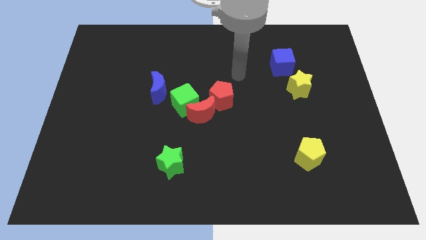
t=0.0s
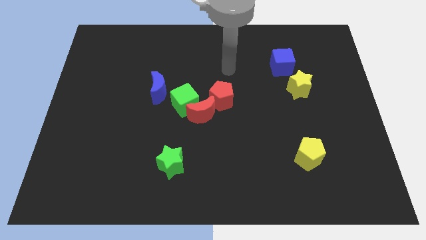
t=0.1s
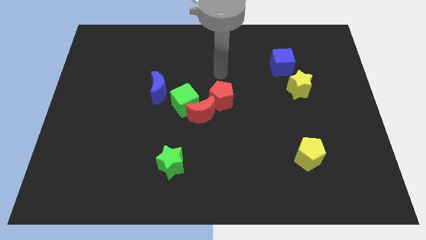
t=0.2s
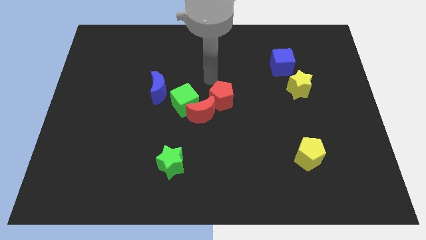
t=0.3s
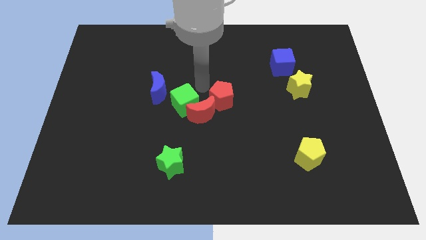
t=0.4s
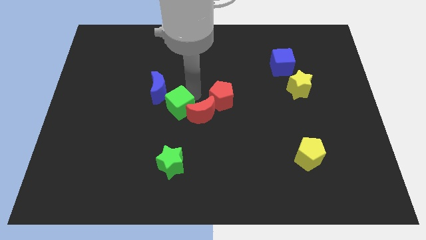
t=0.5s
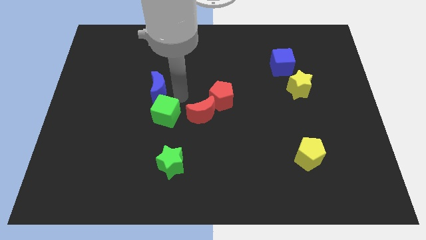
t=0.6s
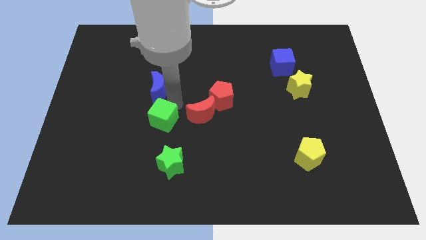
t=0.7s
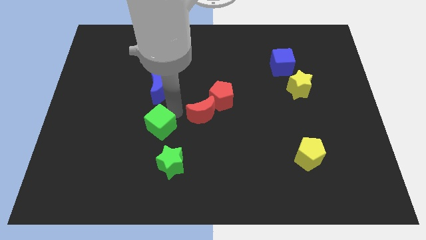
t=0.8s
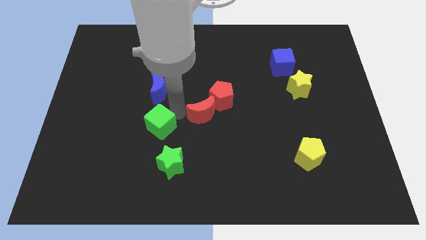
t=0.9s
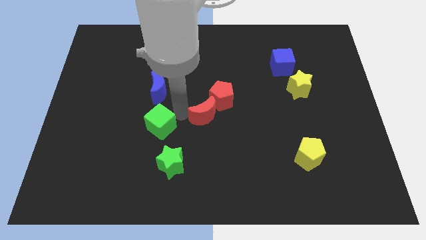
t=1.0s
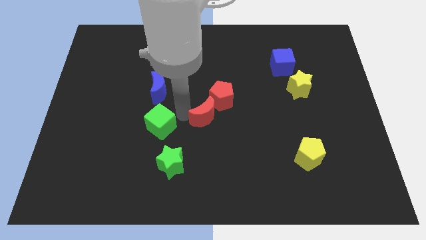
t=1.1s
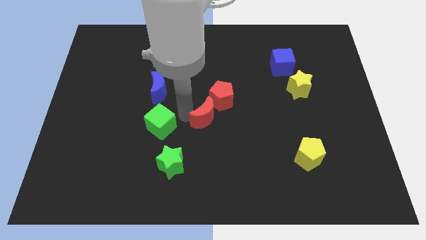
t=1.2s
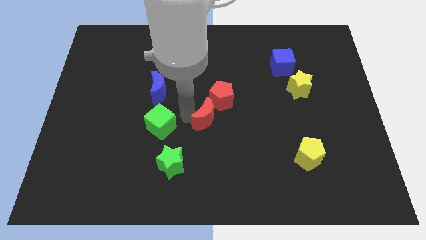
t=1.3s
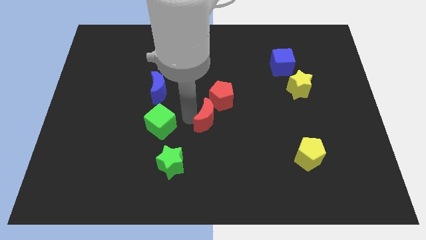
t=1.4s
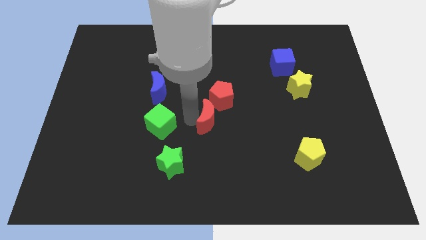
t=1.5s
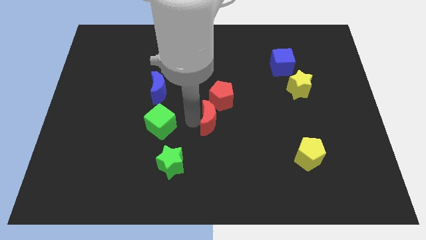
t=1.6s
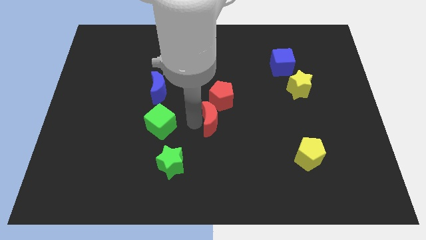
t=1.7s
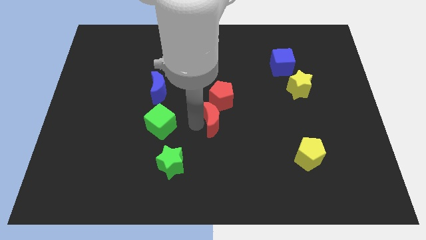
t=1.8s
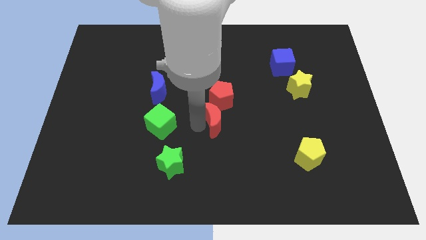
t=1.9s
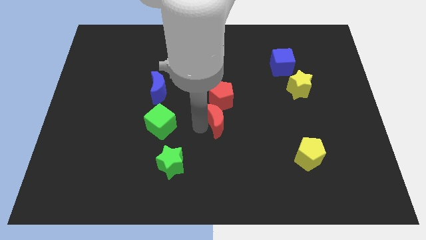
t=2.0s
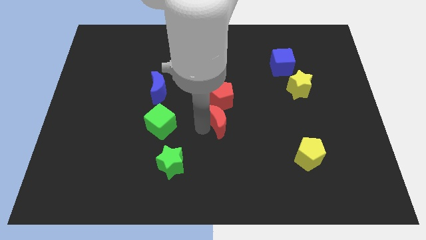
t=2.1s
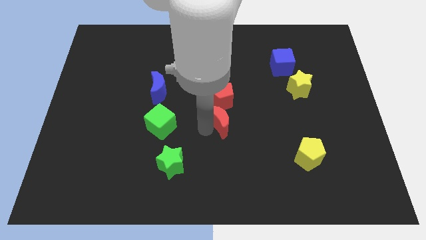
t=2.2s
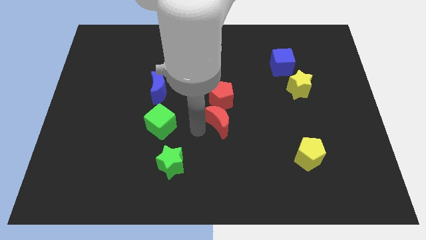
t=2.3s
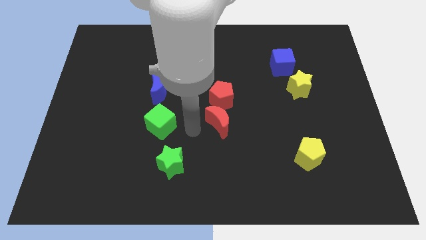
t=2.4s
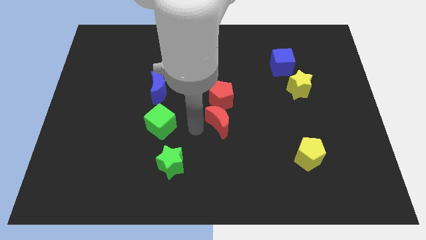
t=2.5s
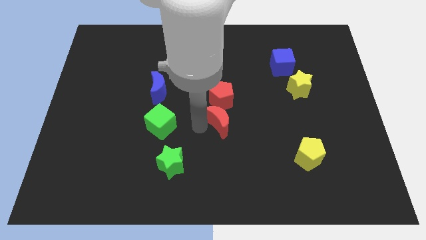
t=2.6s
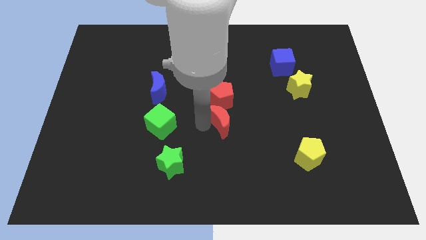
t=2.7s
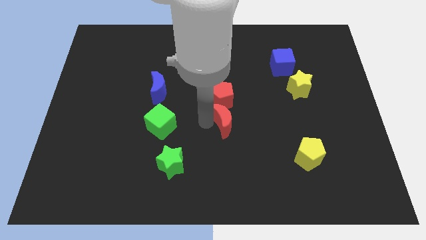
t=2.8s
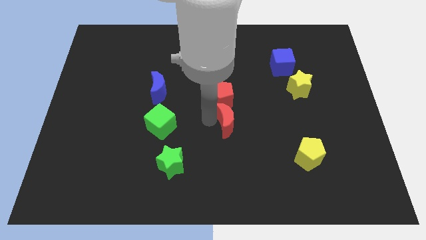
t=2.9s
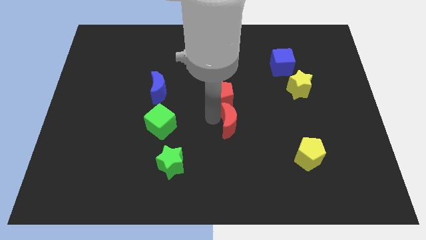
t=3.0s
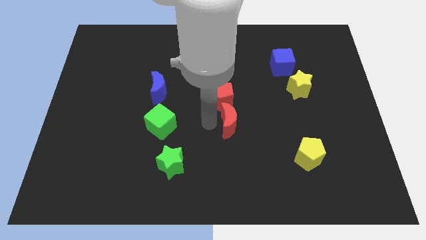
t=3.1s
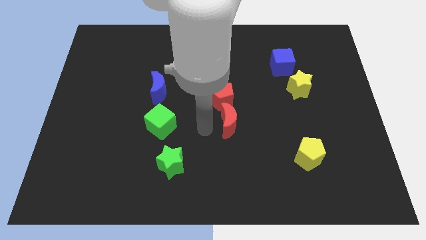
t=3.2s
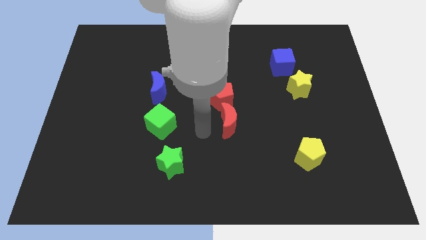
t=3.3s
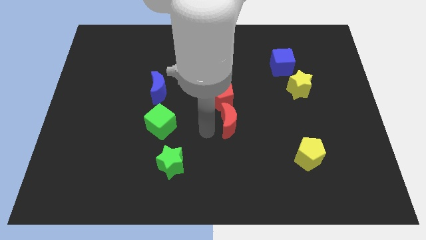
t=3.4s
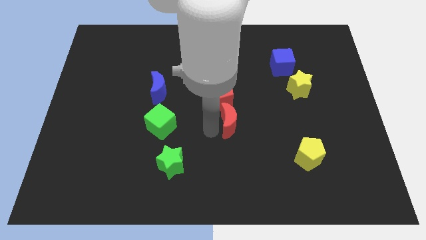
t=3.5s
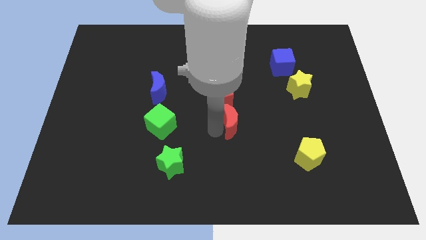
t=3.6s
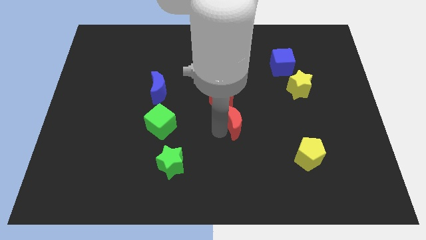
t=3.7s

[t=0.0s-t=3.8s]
slightly slide the red moon to the right

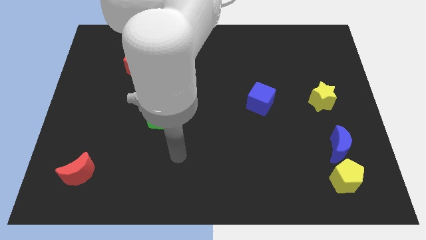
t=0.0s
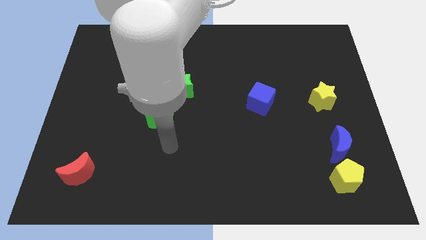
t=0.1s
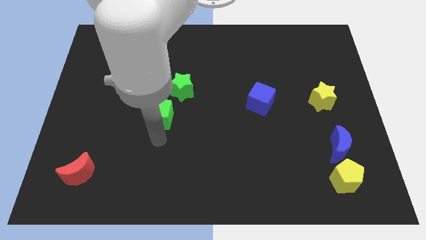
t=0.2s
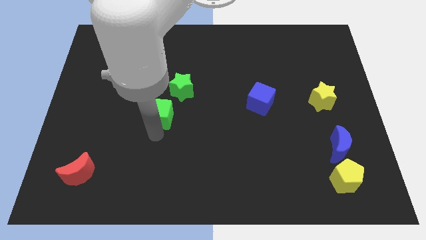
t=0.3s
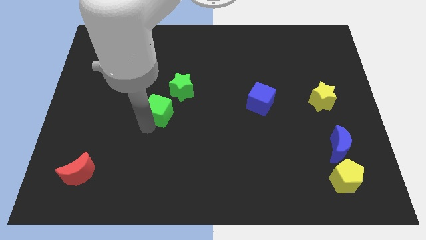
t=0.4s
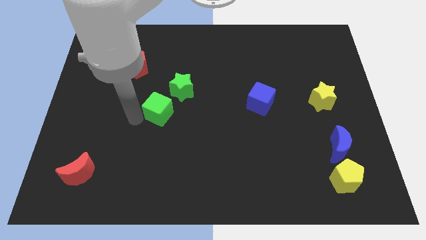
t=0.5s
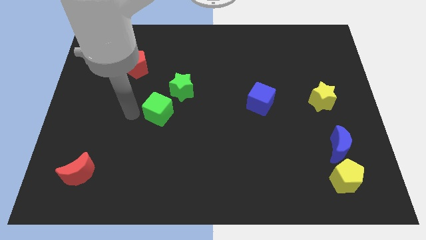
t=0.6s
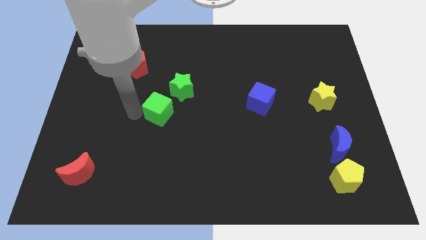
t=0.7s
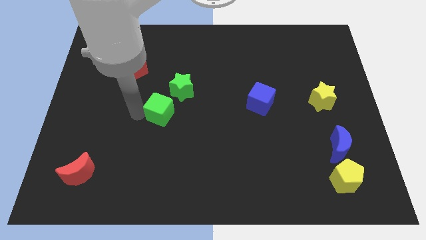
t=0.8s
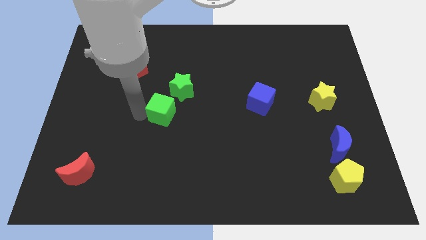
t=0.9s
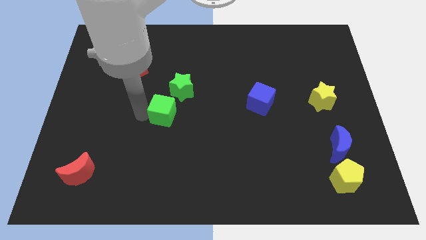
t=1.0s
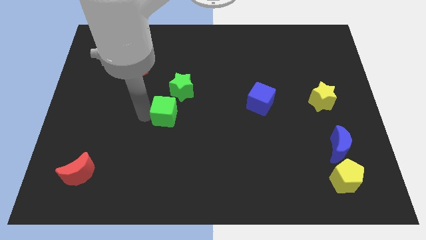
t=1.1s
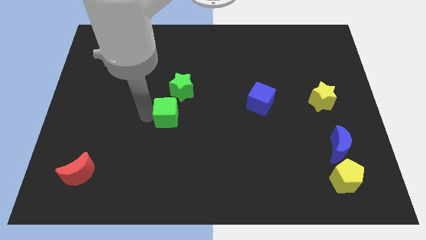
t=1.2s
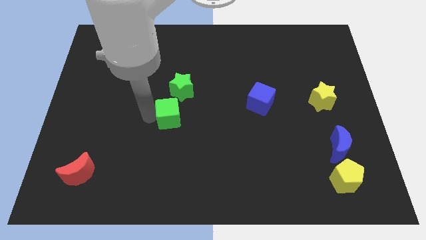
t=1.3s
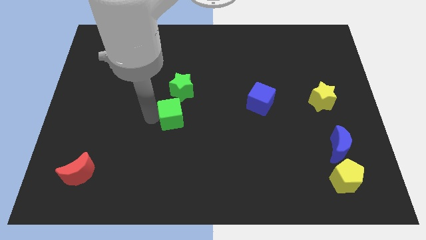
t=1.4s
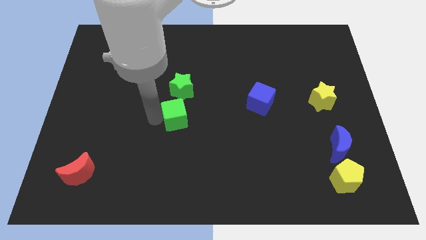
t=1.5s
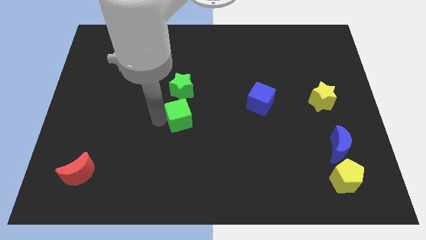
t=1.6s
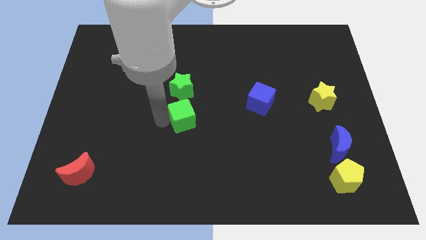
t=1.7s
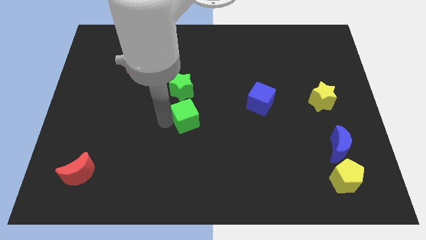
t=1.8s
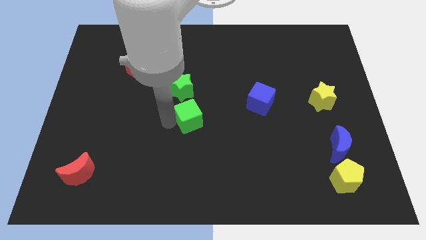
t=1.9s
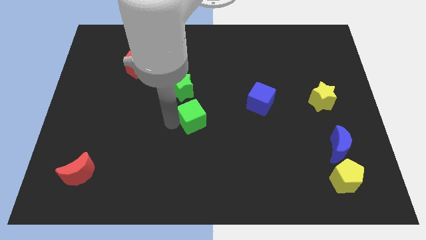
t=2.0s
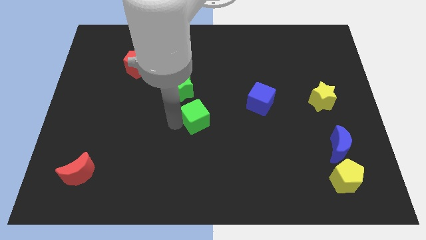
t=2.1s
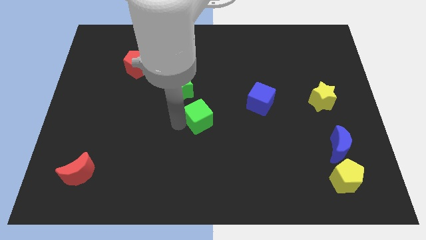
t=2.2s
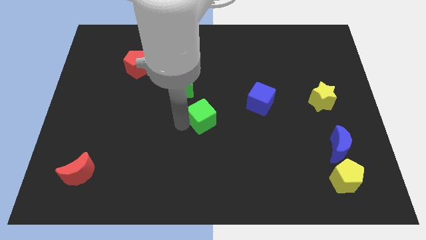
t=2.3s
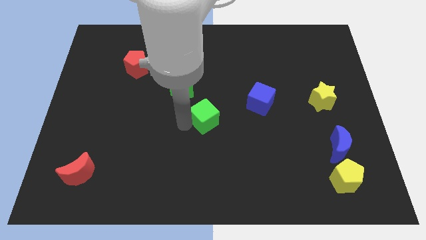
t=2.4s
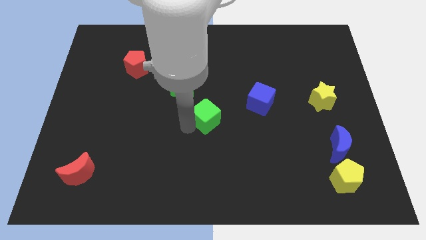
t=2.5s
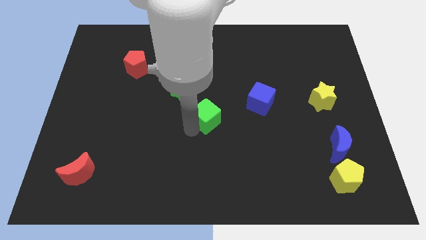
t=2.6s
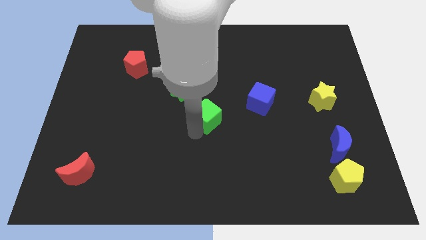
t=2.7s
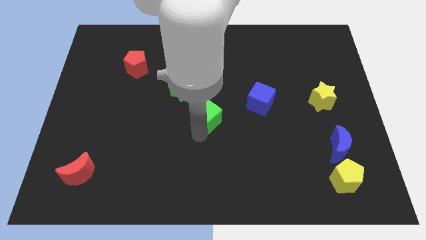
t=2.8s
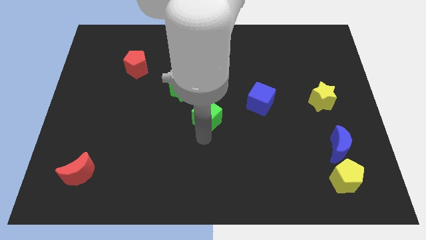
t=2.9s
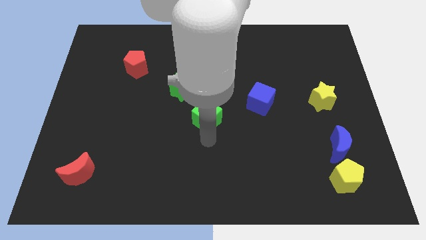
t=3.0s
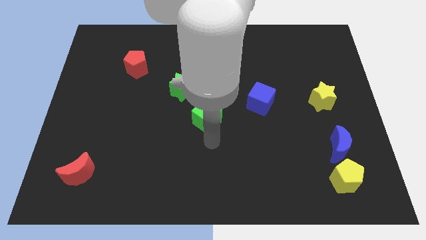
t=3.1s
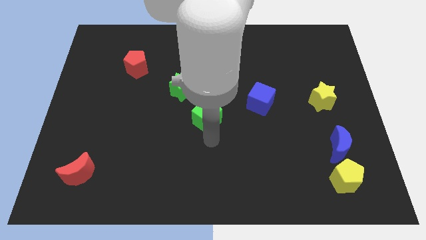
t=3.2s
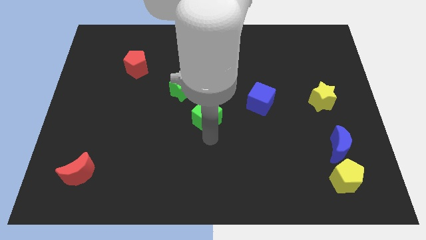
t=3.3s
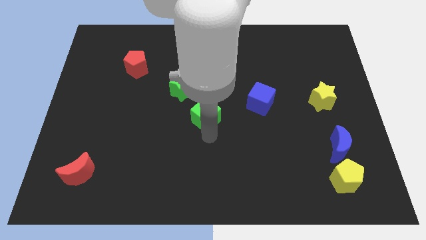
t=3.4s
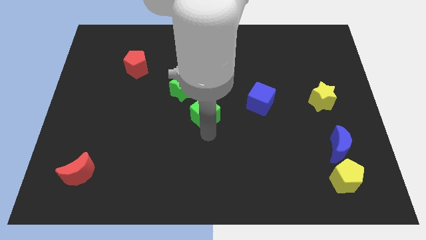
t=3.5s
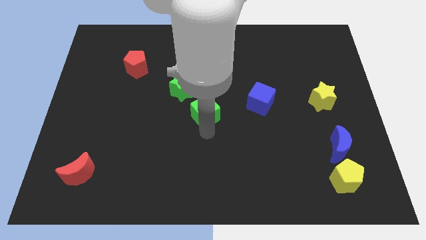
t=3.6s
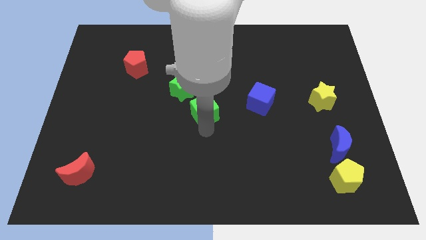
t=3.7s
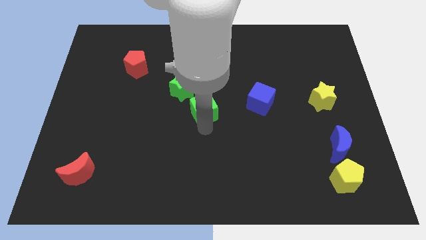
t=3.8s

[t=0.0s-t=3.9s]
move the green cube diagonally upwards and right a little bit

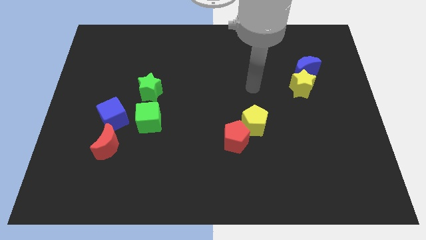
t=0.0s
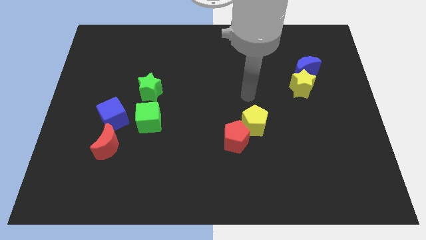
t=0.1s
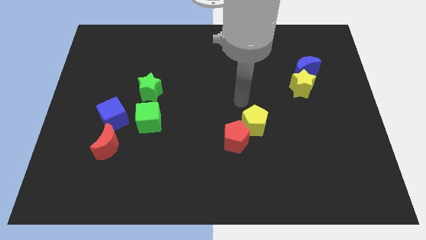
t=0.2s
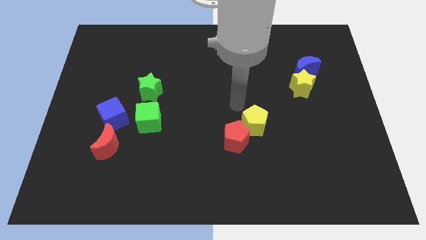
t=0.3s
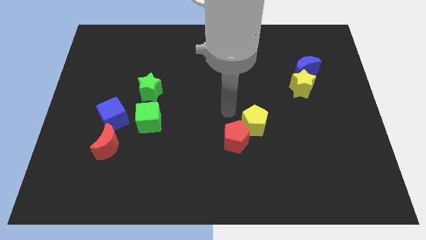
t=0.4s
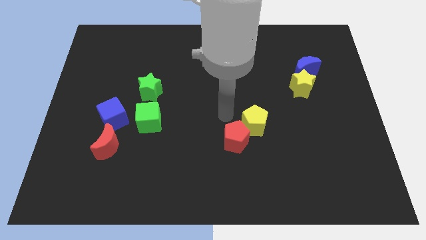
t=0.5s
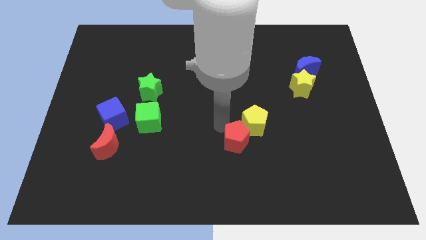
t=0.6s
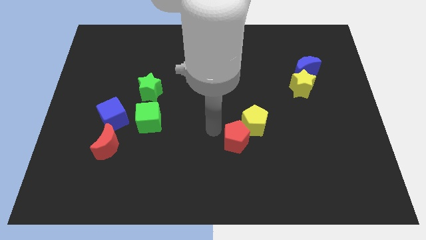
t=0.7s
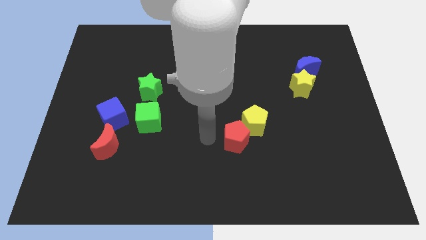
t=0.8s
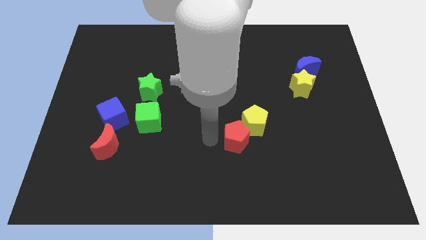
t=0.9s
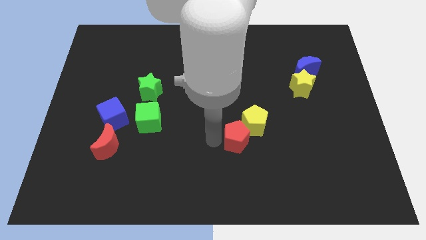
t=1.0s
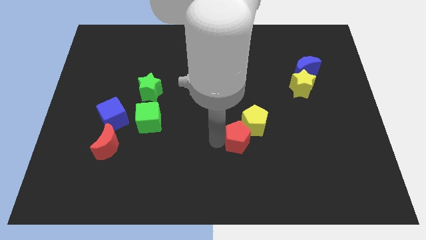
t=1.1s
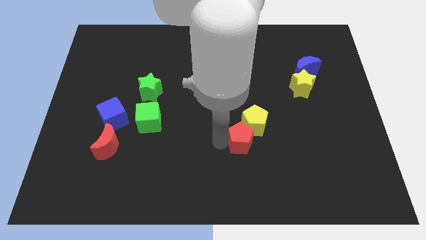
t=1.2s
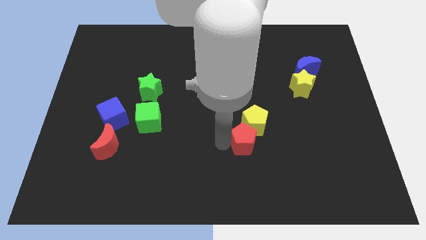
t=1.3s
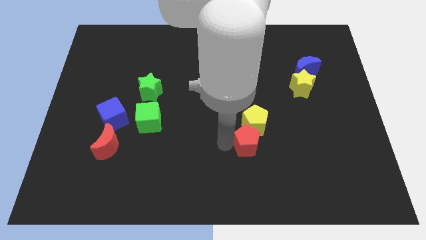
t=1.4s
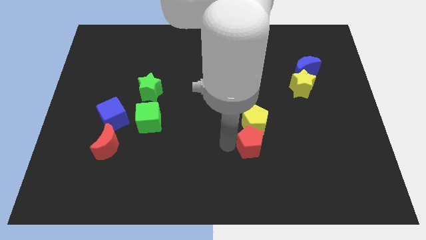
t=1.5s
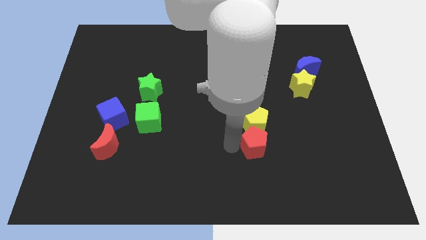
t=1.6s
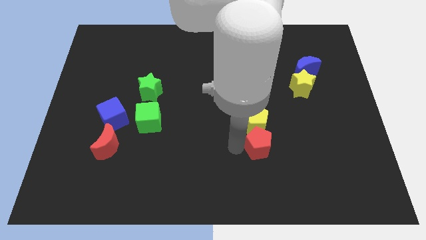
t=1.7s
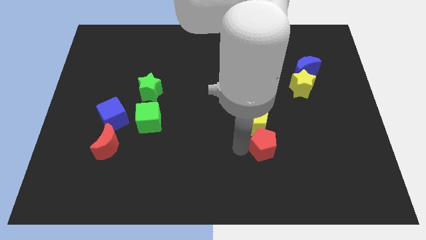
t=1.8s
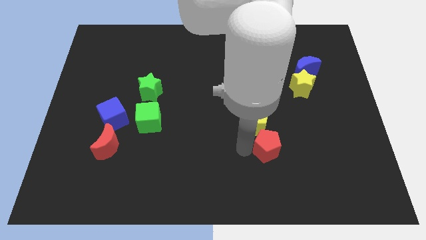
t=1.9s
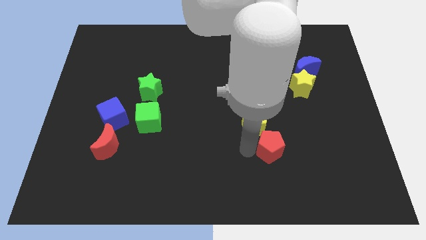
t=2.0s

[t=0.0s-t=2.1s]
push the red pentagon a bit right
